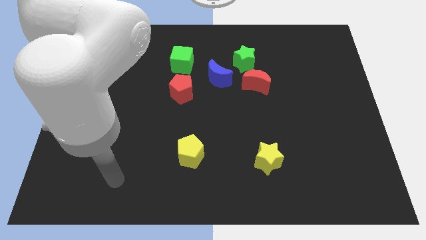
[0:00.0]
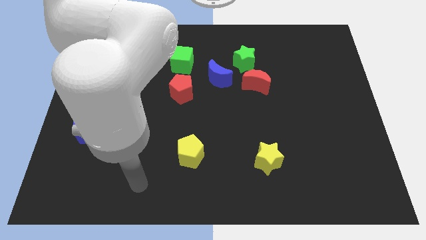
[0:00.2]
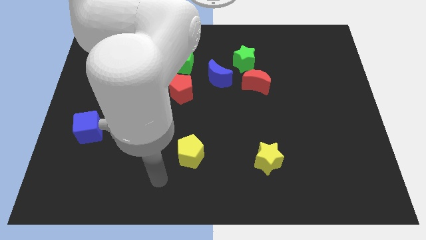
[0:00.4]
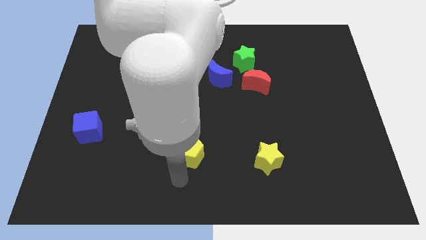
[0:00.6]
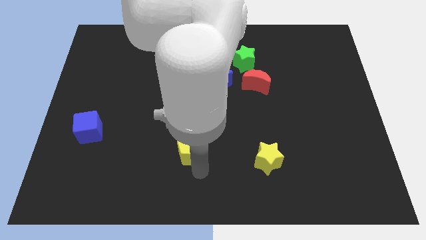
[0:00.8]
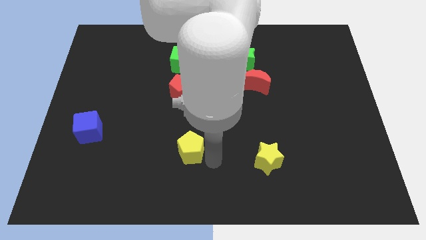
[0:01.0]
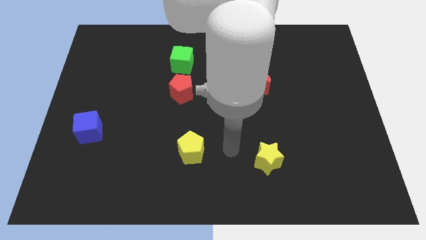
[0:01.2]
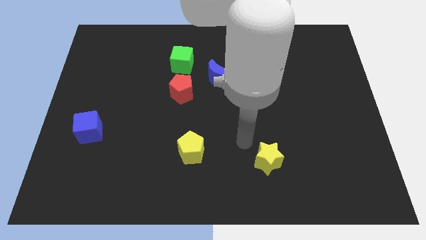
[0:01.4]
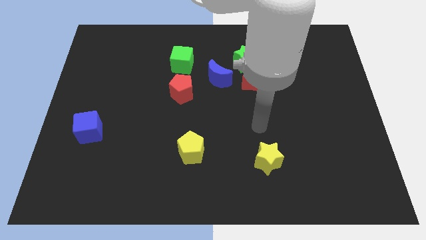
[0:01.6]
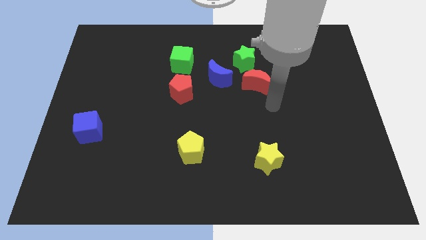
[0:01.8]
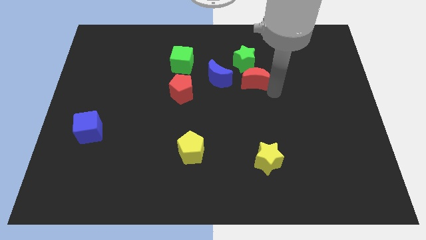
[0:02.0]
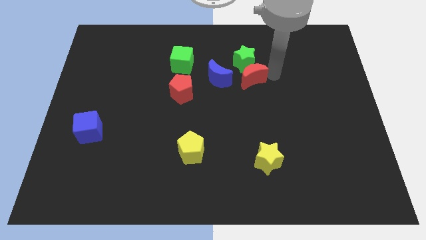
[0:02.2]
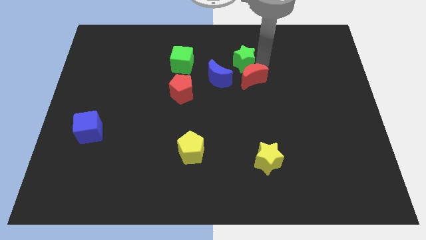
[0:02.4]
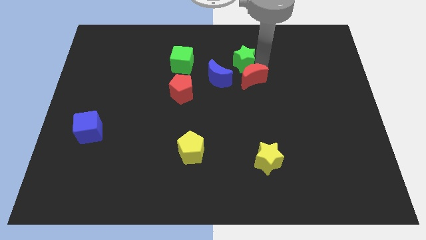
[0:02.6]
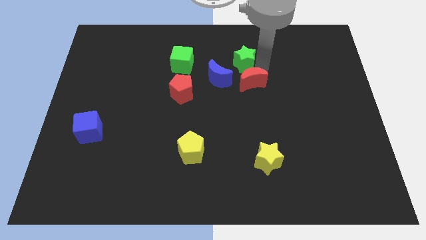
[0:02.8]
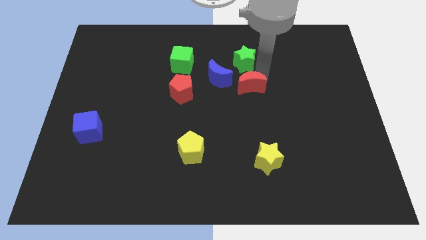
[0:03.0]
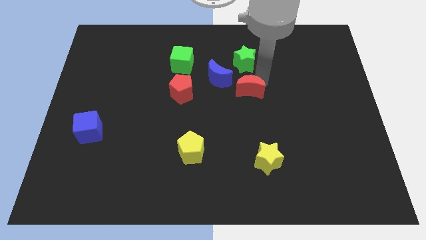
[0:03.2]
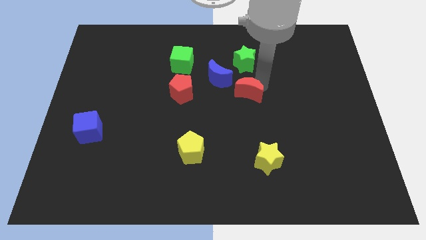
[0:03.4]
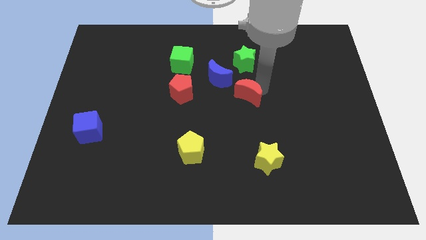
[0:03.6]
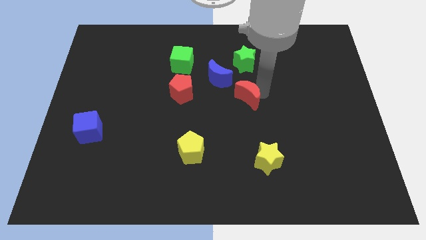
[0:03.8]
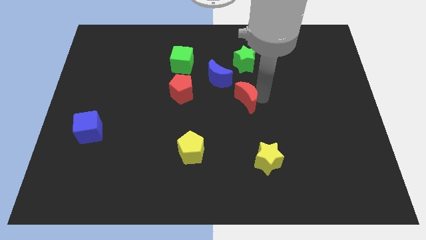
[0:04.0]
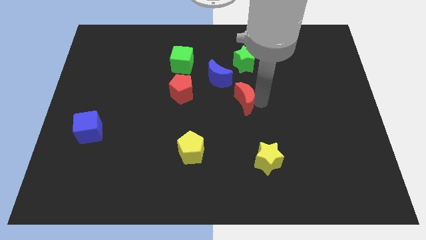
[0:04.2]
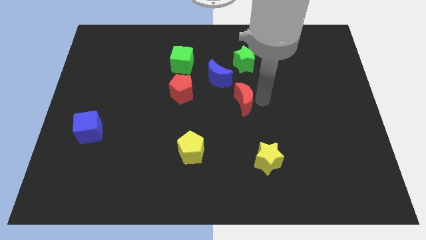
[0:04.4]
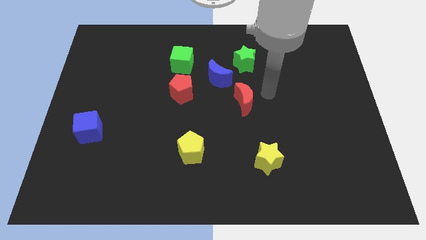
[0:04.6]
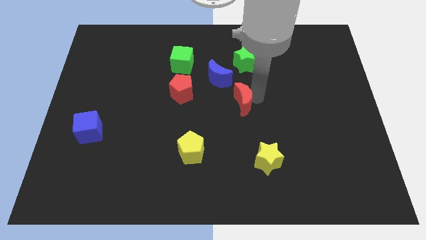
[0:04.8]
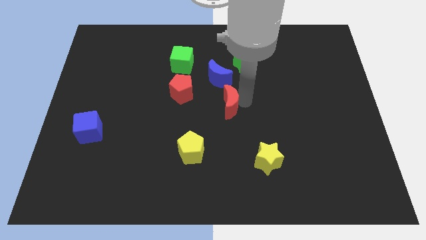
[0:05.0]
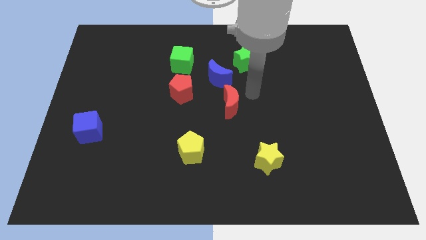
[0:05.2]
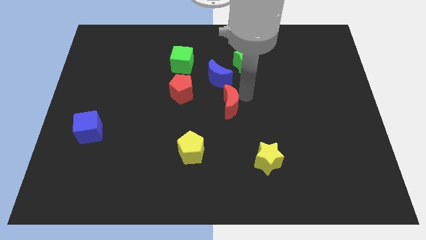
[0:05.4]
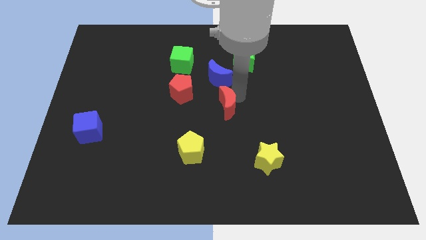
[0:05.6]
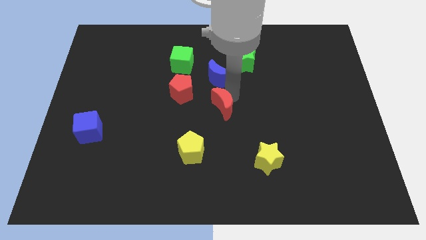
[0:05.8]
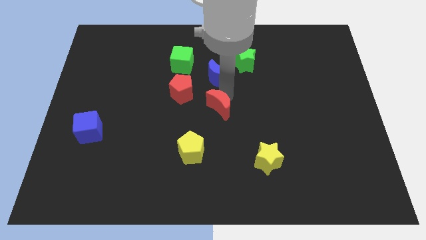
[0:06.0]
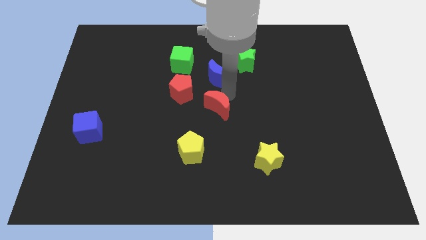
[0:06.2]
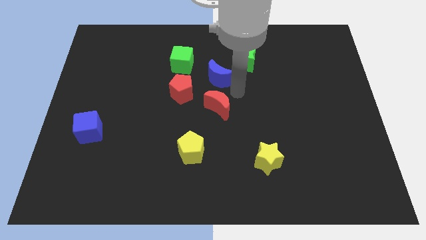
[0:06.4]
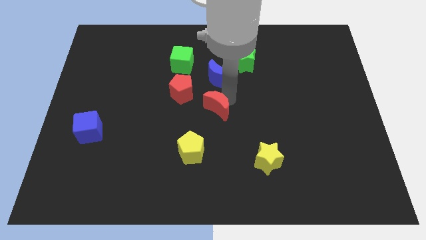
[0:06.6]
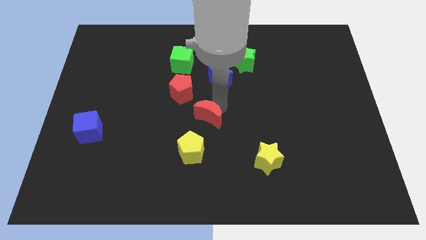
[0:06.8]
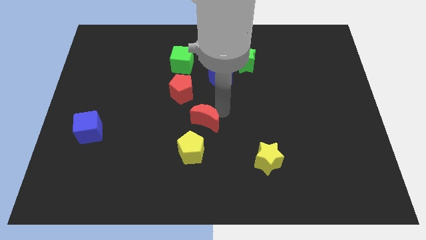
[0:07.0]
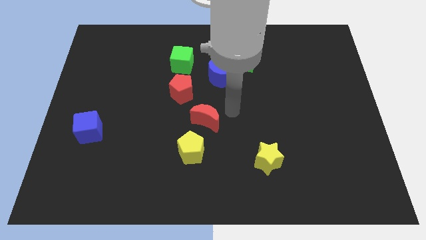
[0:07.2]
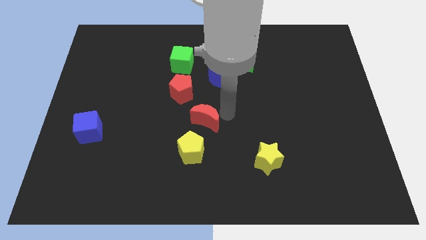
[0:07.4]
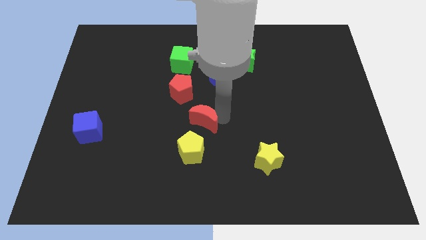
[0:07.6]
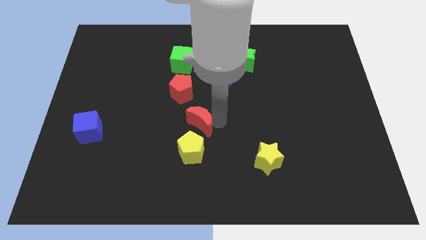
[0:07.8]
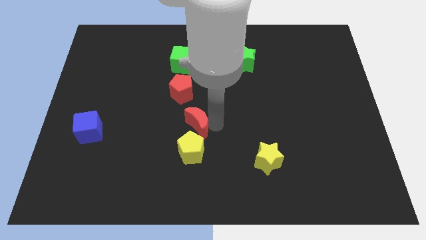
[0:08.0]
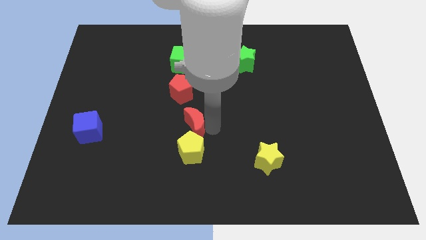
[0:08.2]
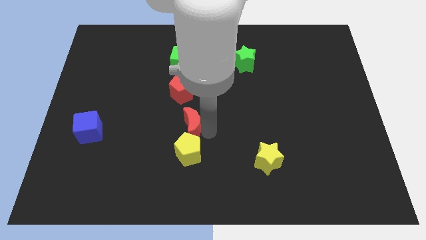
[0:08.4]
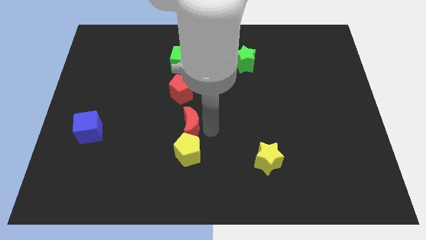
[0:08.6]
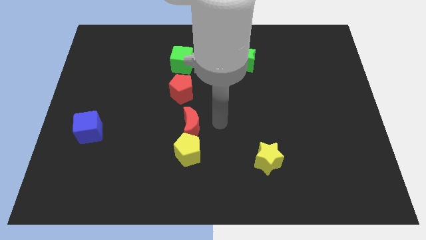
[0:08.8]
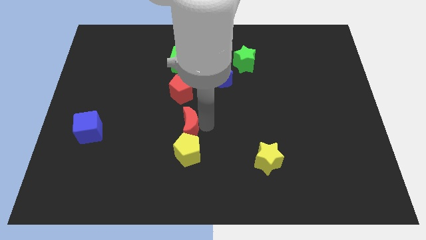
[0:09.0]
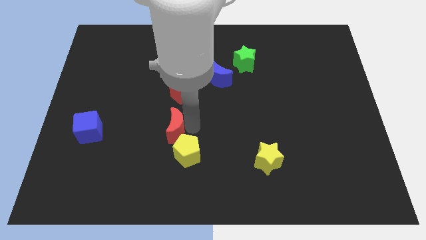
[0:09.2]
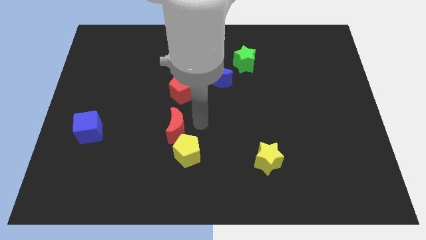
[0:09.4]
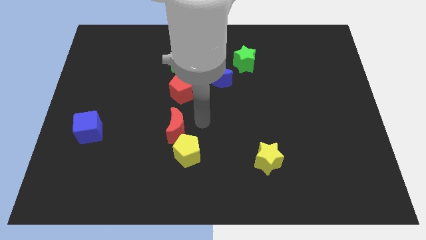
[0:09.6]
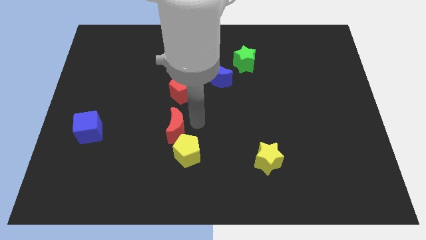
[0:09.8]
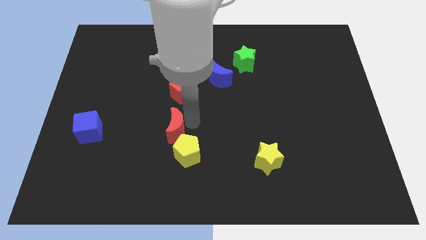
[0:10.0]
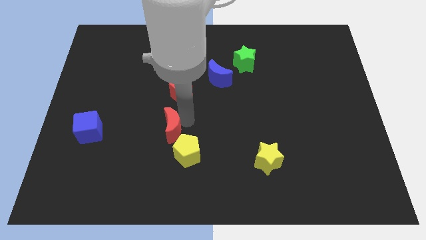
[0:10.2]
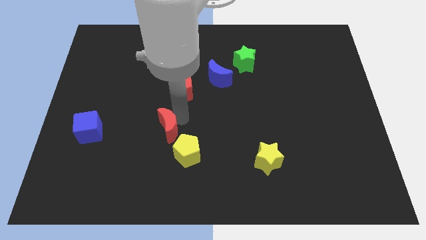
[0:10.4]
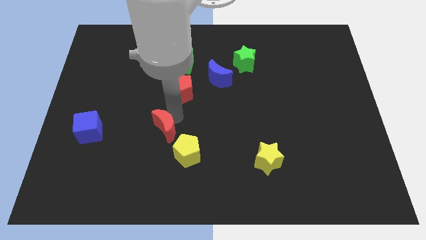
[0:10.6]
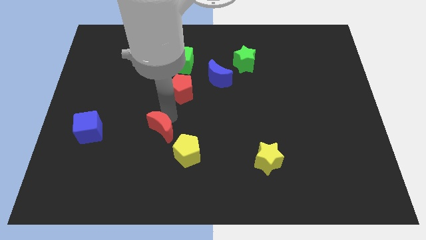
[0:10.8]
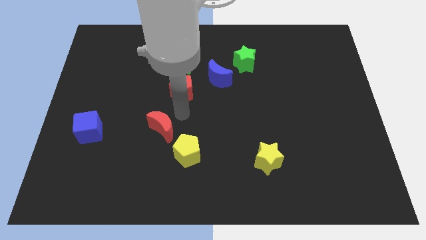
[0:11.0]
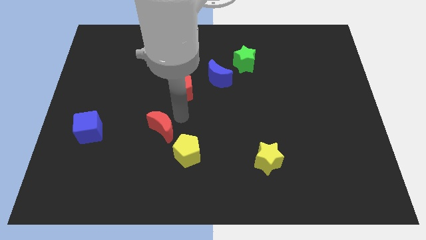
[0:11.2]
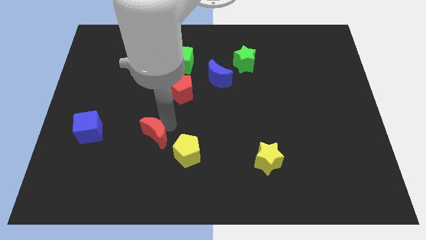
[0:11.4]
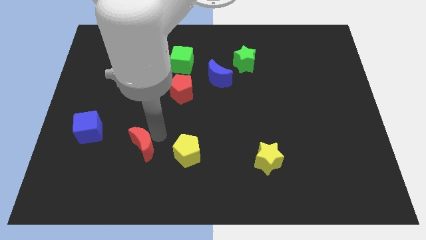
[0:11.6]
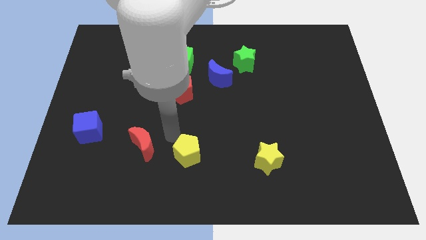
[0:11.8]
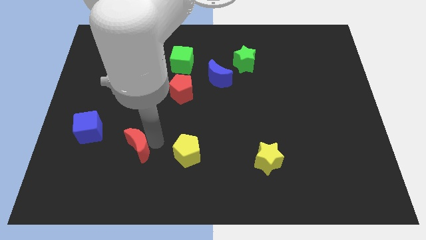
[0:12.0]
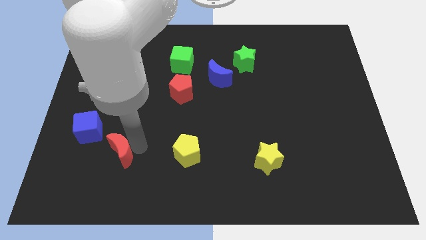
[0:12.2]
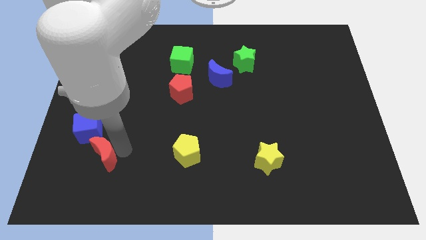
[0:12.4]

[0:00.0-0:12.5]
put the red moon below the blue cube

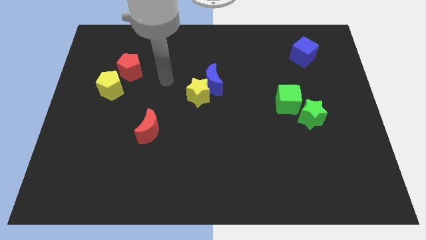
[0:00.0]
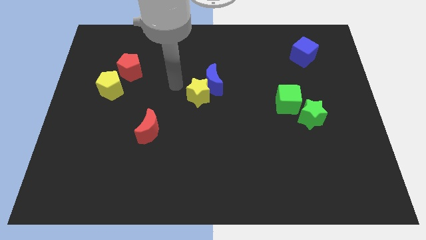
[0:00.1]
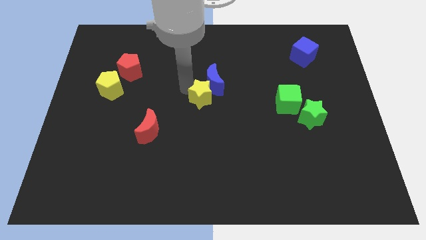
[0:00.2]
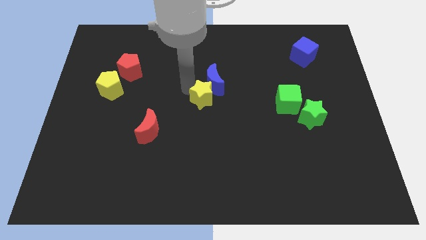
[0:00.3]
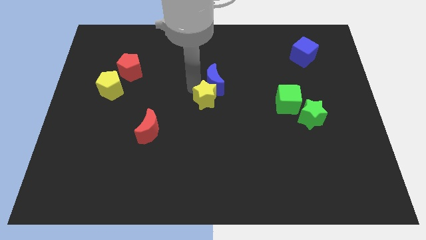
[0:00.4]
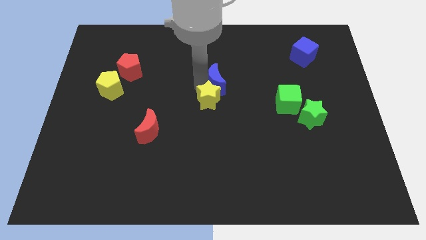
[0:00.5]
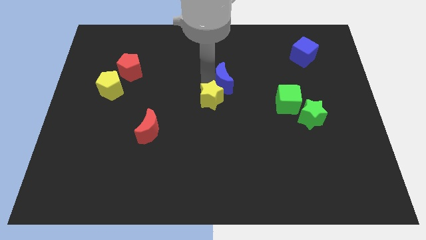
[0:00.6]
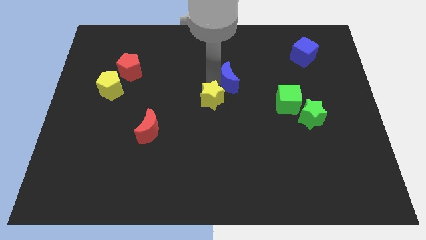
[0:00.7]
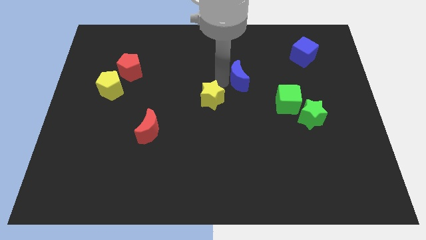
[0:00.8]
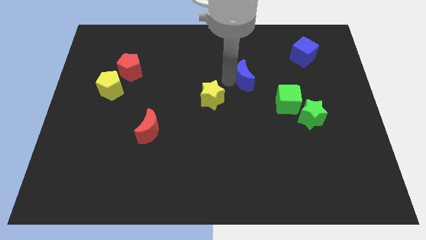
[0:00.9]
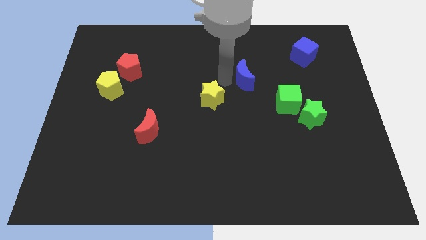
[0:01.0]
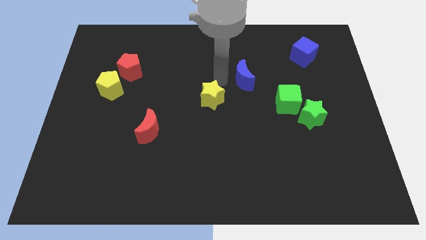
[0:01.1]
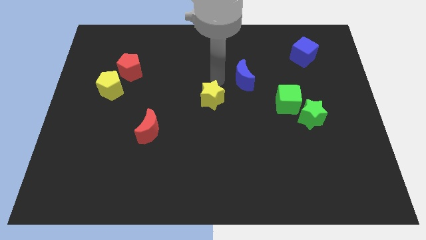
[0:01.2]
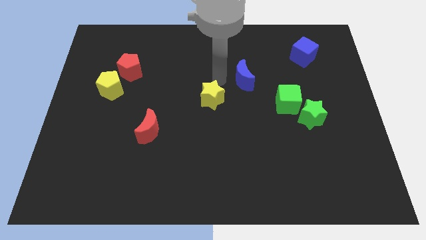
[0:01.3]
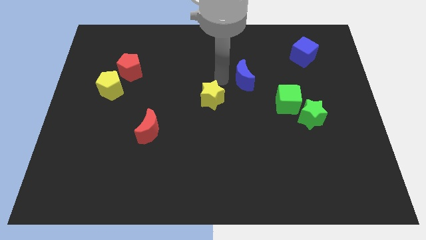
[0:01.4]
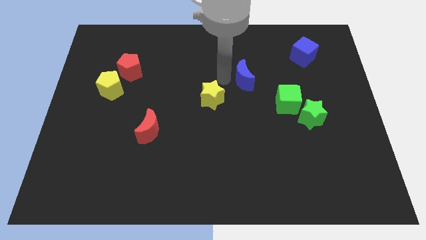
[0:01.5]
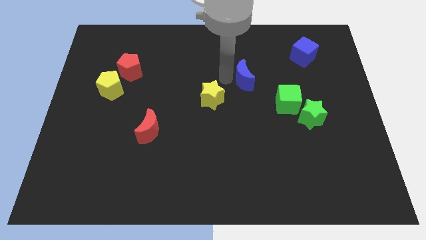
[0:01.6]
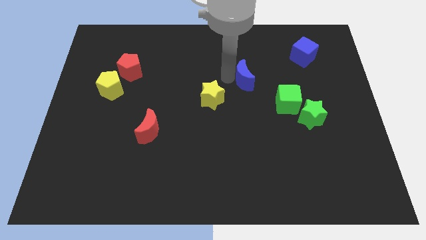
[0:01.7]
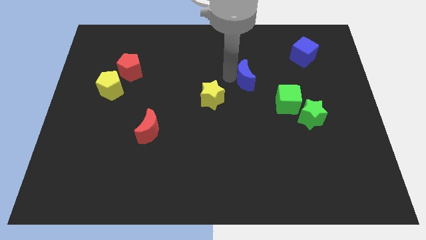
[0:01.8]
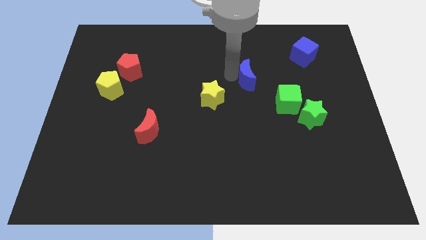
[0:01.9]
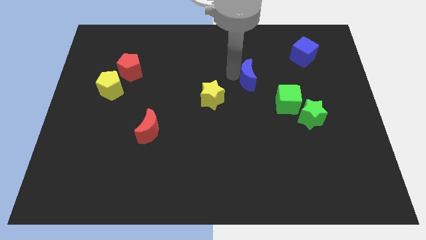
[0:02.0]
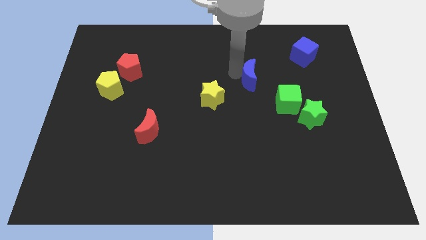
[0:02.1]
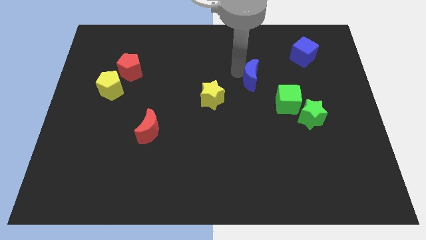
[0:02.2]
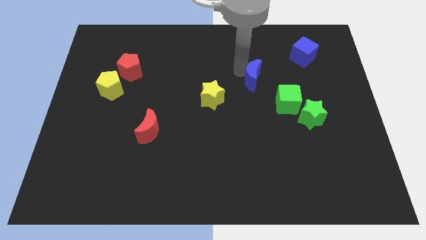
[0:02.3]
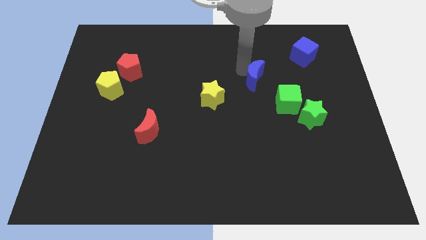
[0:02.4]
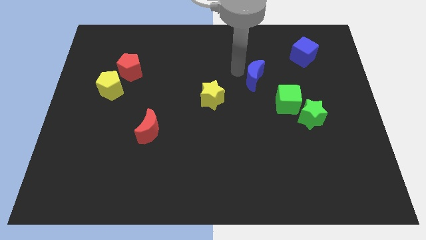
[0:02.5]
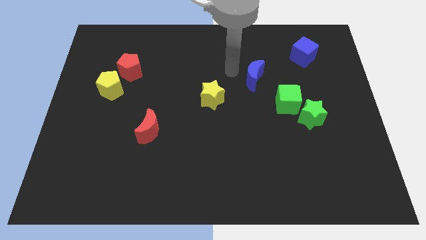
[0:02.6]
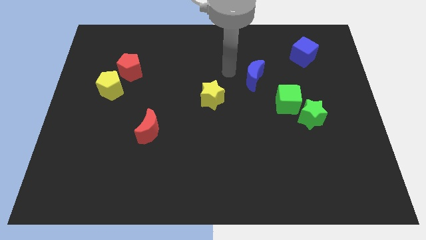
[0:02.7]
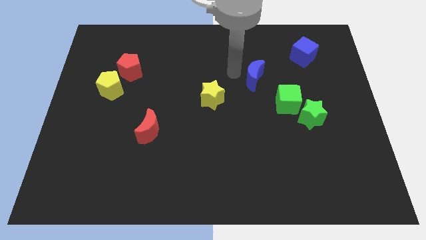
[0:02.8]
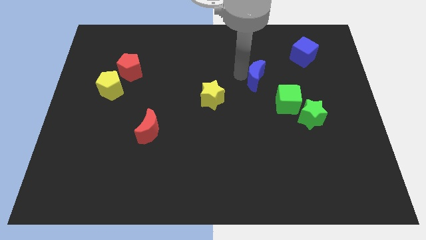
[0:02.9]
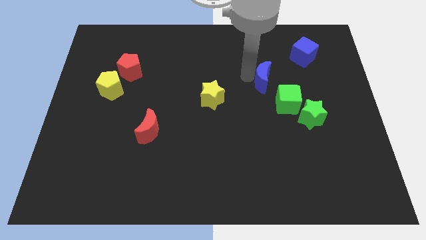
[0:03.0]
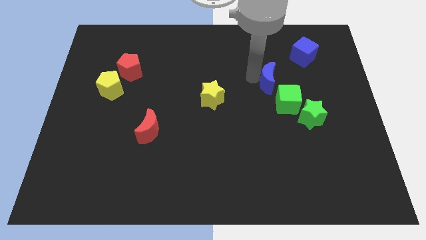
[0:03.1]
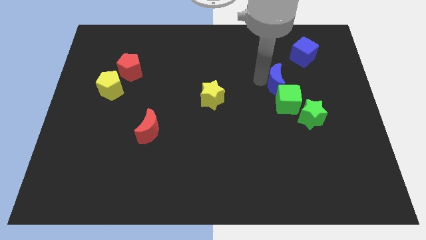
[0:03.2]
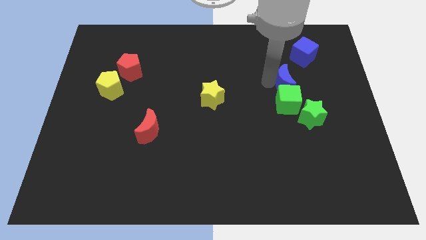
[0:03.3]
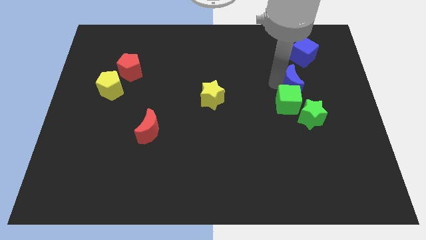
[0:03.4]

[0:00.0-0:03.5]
put the blue moon to the bottom of the blue cube
